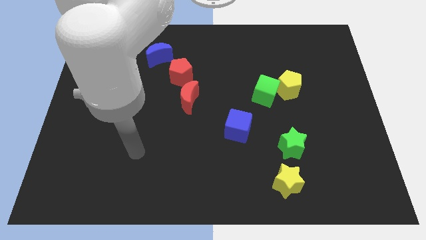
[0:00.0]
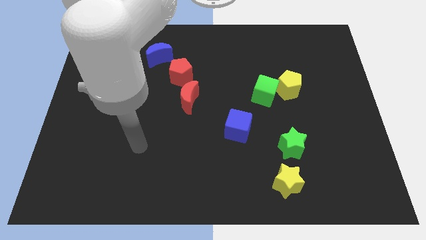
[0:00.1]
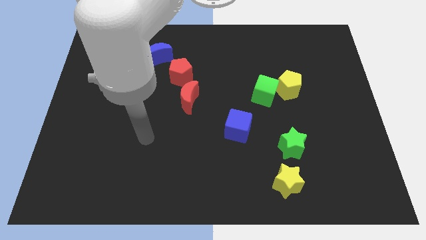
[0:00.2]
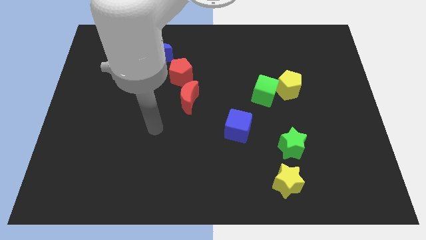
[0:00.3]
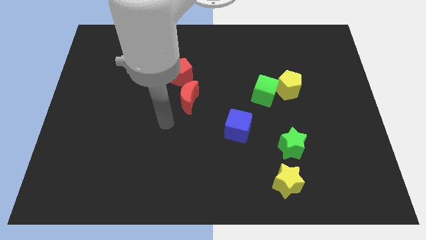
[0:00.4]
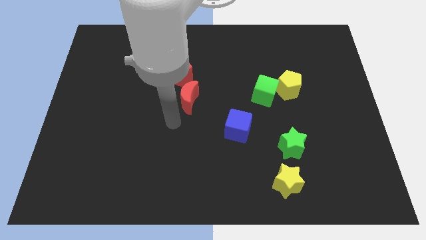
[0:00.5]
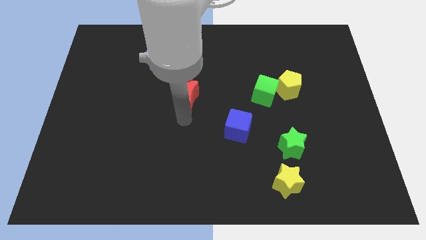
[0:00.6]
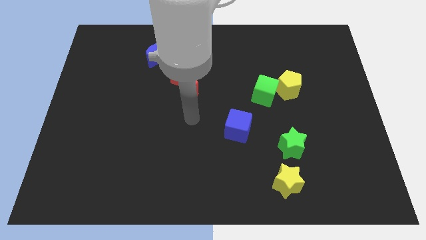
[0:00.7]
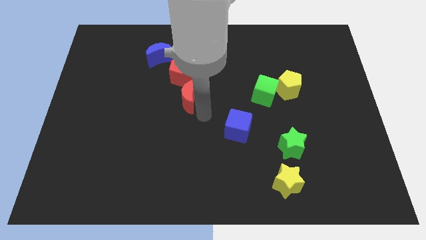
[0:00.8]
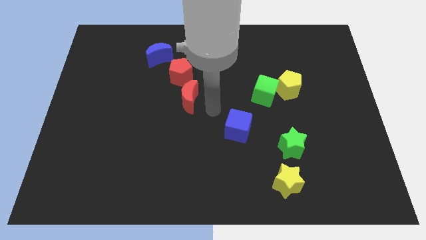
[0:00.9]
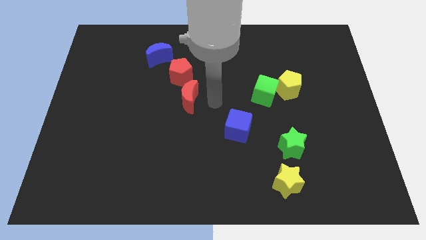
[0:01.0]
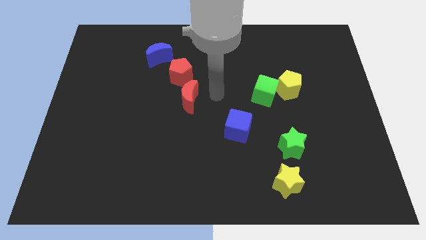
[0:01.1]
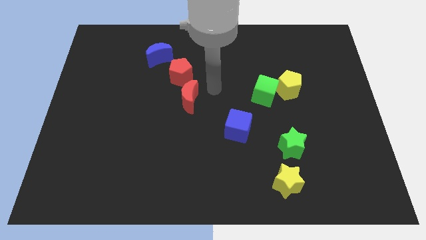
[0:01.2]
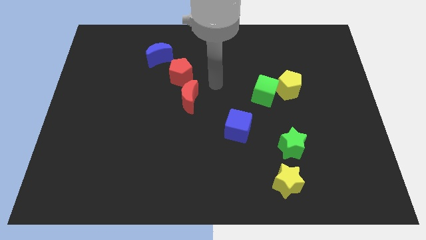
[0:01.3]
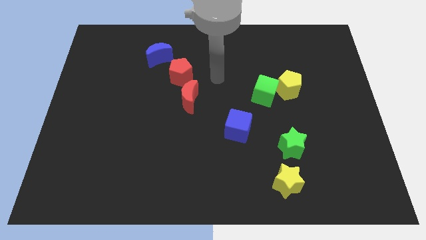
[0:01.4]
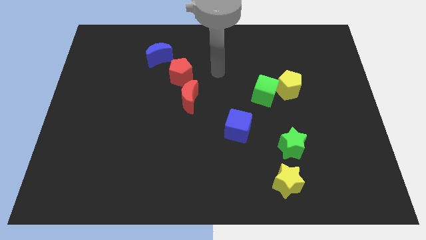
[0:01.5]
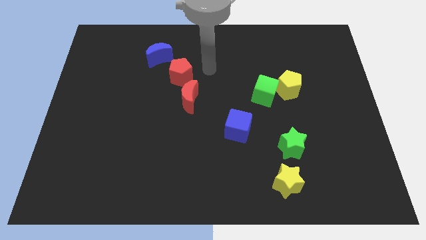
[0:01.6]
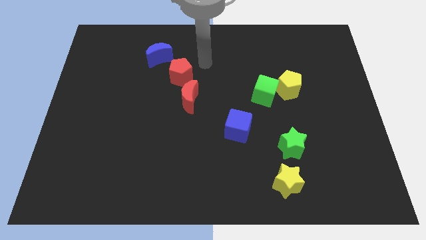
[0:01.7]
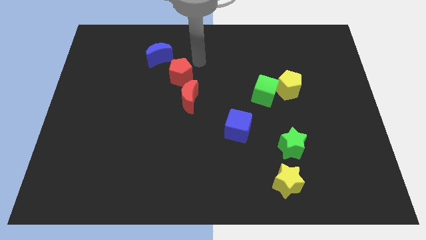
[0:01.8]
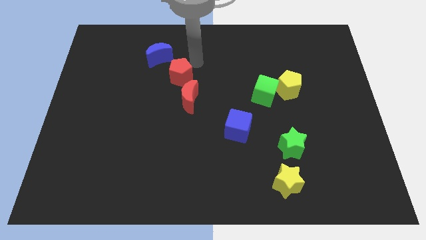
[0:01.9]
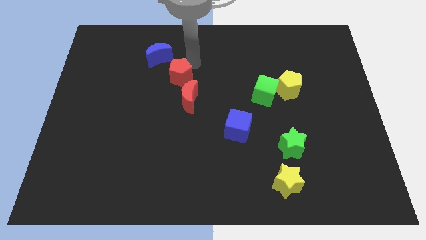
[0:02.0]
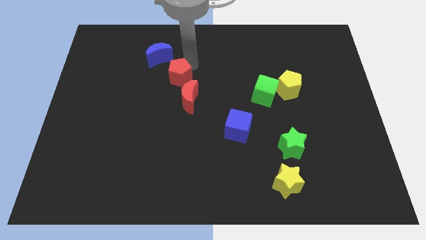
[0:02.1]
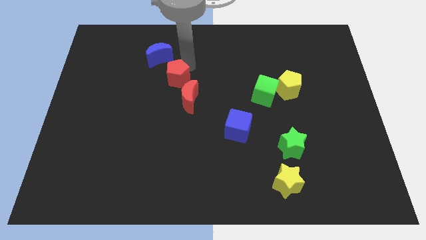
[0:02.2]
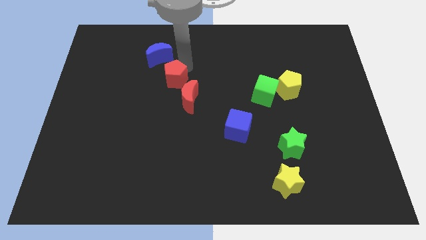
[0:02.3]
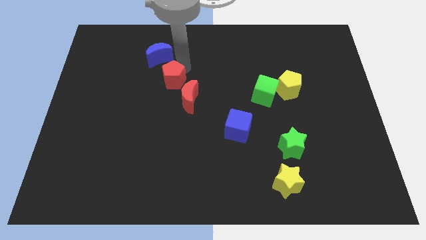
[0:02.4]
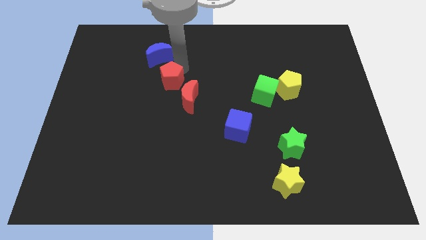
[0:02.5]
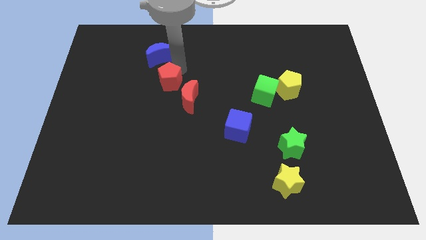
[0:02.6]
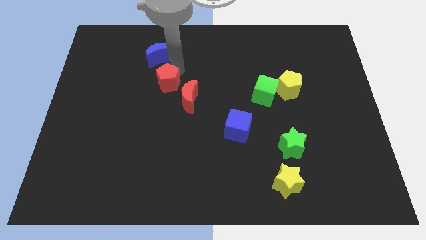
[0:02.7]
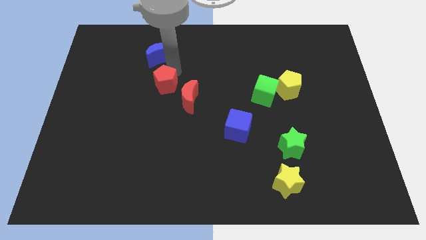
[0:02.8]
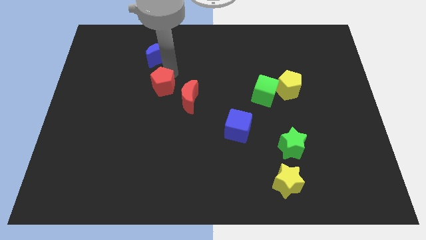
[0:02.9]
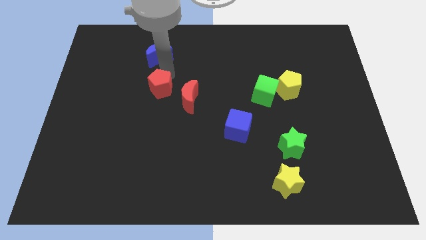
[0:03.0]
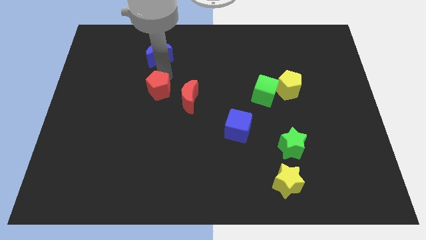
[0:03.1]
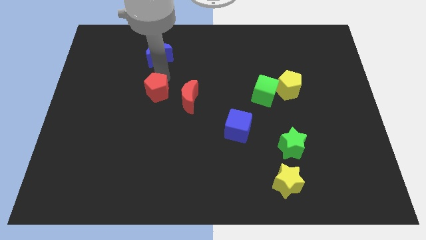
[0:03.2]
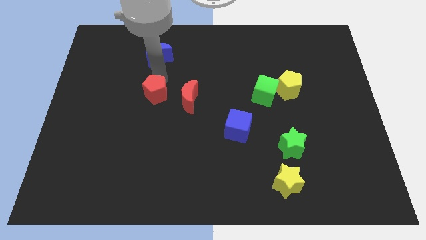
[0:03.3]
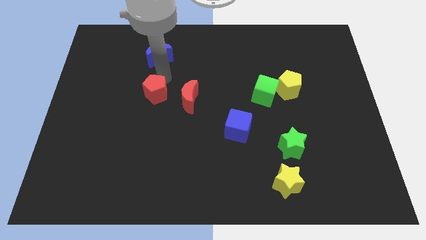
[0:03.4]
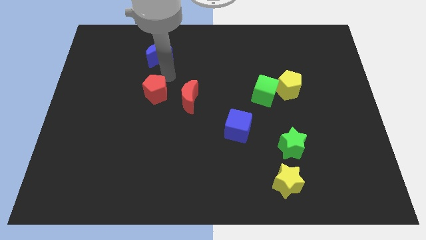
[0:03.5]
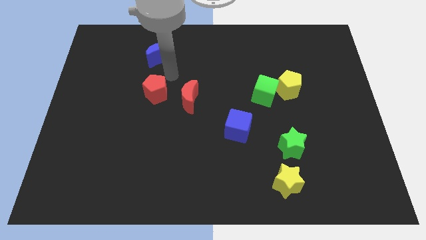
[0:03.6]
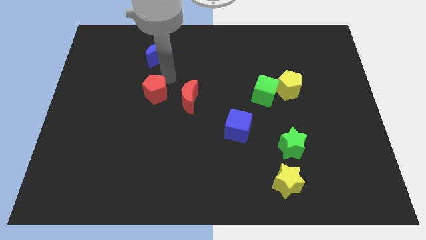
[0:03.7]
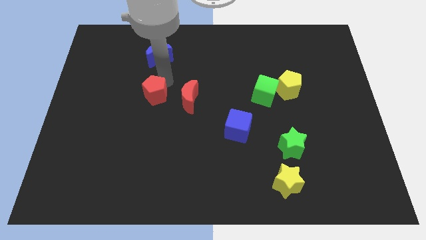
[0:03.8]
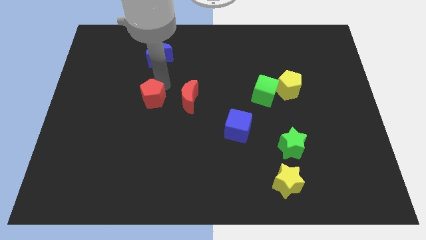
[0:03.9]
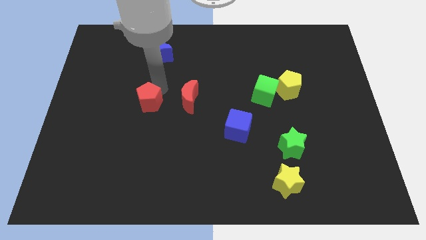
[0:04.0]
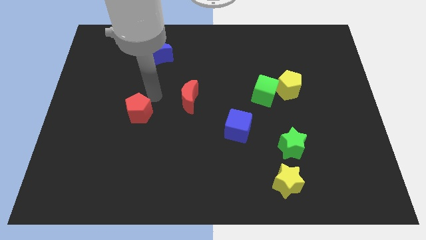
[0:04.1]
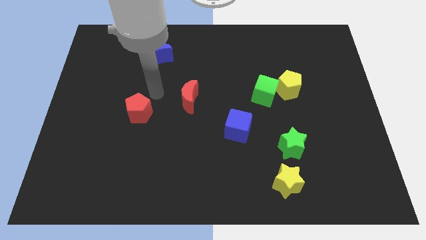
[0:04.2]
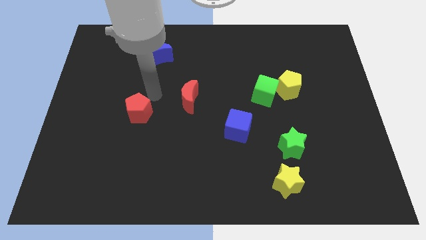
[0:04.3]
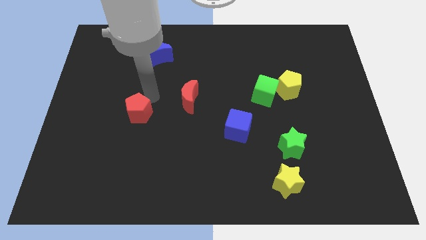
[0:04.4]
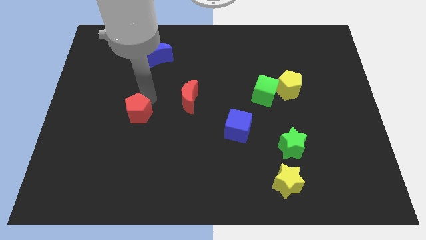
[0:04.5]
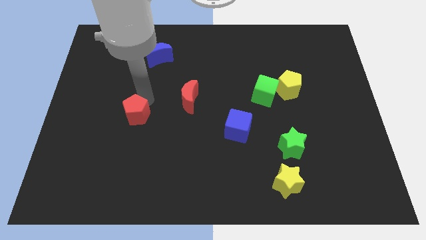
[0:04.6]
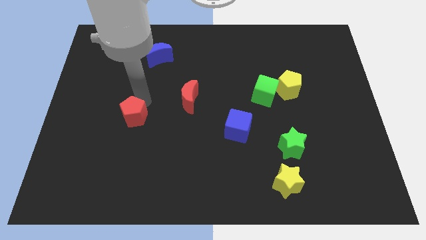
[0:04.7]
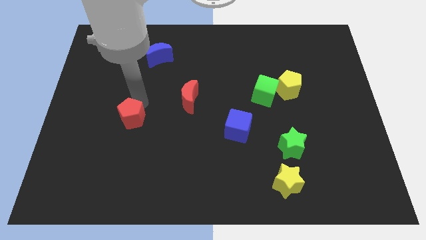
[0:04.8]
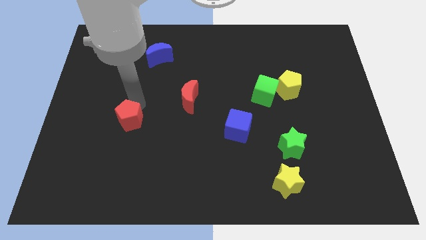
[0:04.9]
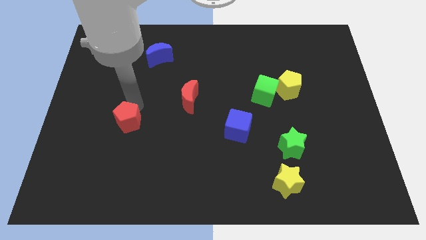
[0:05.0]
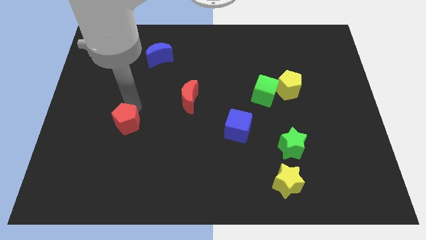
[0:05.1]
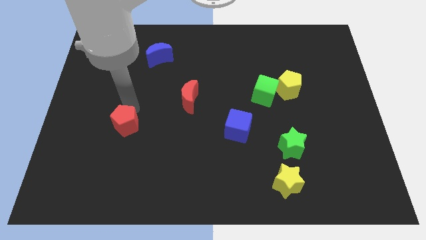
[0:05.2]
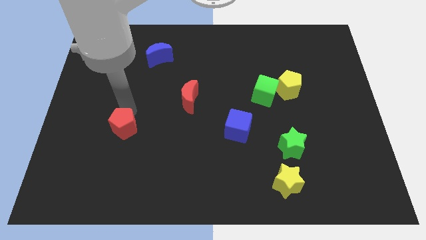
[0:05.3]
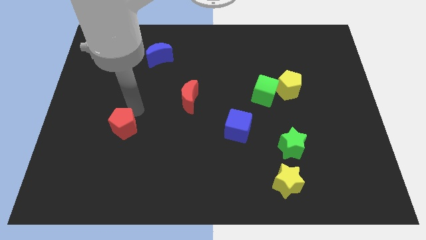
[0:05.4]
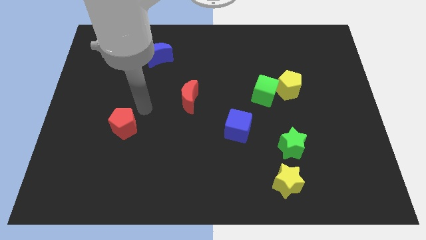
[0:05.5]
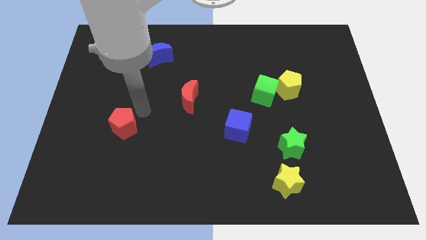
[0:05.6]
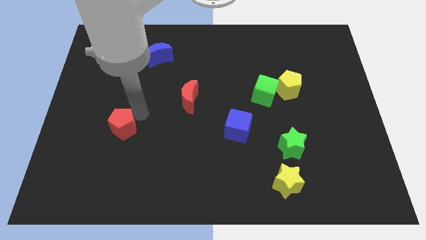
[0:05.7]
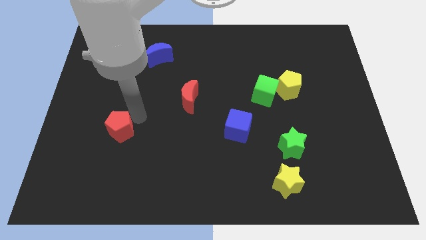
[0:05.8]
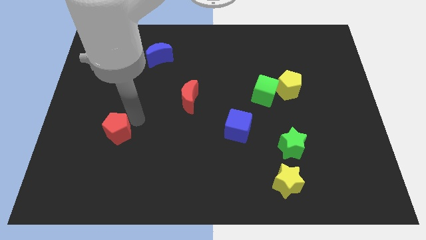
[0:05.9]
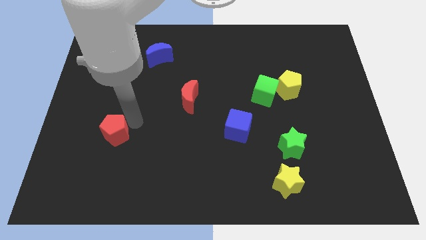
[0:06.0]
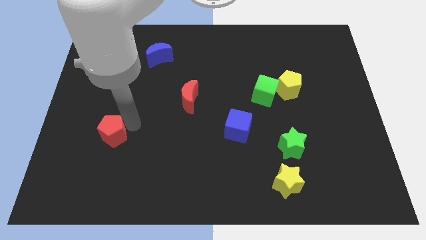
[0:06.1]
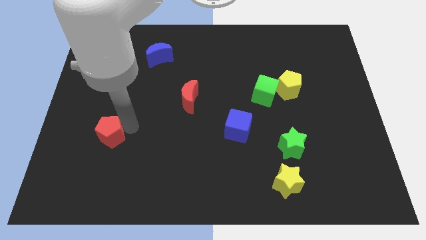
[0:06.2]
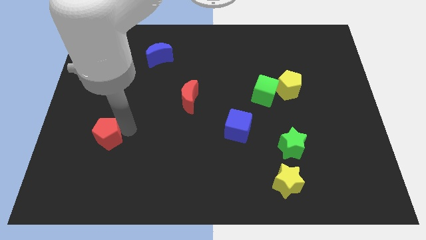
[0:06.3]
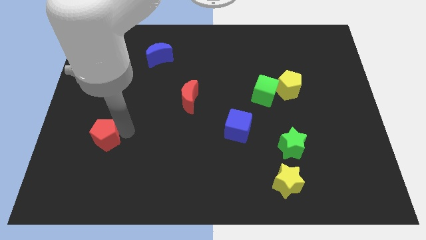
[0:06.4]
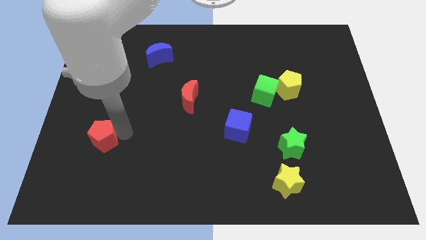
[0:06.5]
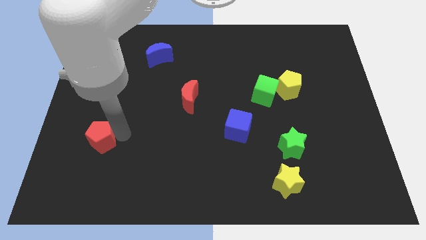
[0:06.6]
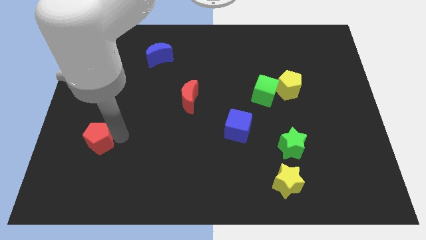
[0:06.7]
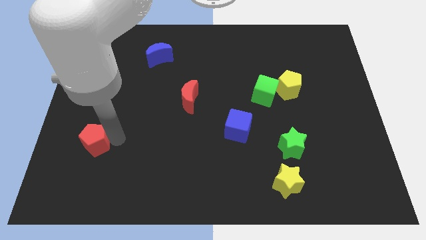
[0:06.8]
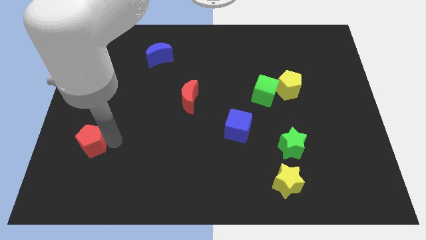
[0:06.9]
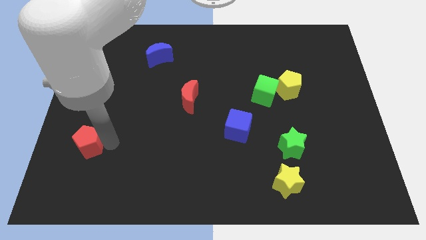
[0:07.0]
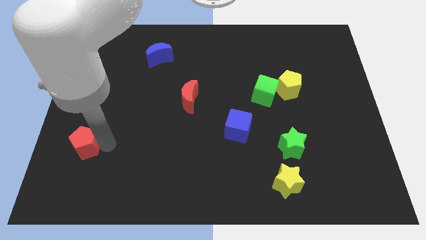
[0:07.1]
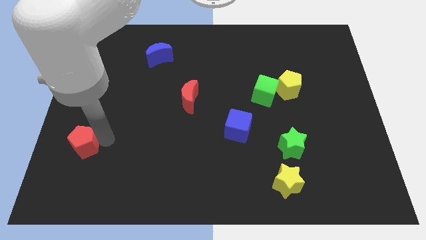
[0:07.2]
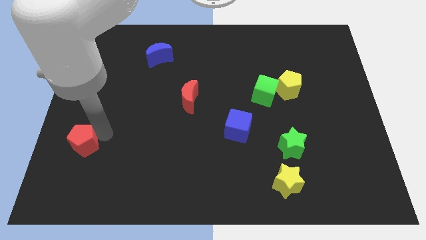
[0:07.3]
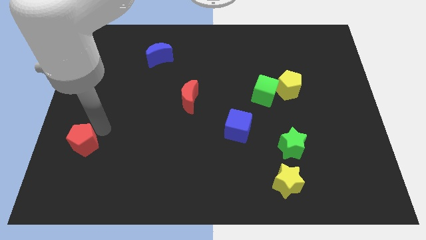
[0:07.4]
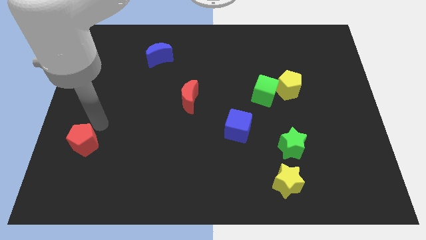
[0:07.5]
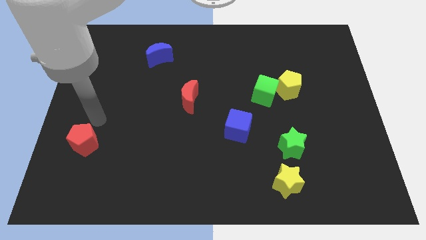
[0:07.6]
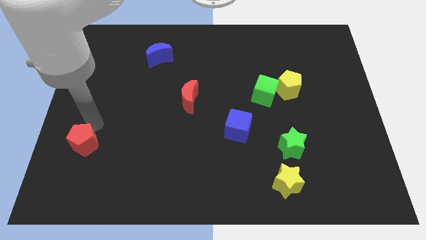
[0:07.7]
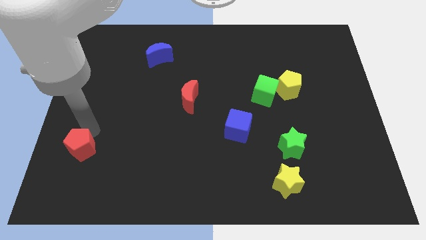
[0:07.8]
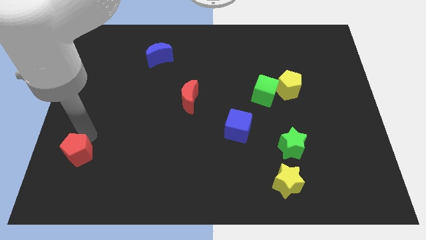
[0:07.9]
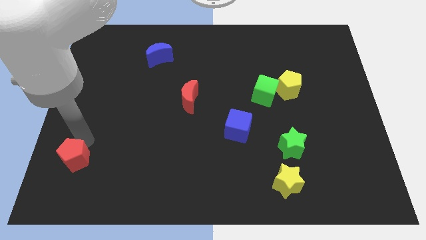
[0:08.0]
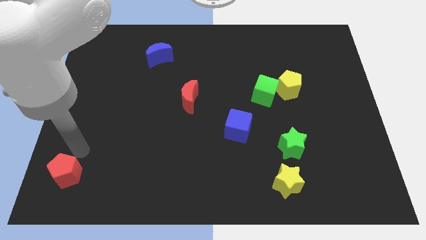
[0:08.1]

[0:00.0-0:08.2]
move the red pentagon to the bottom left corner
